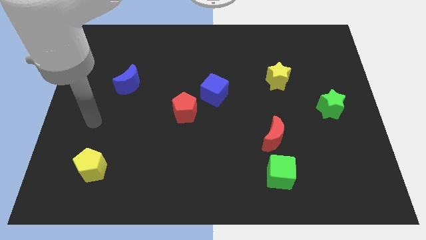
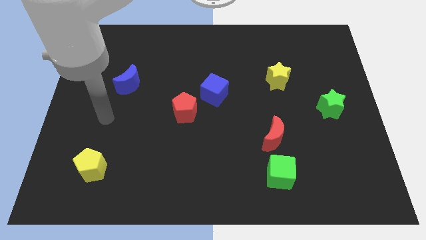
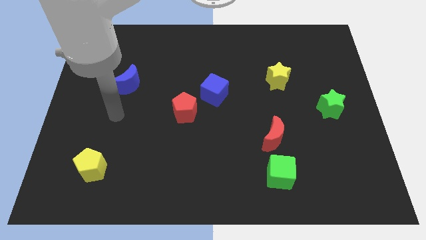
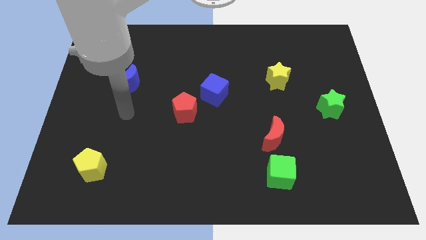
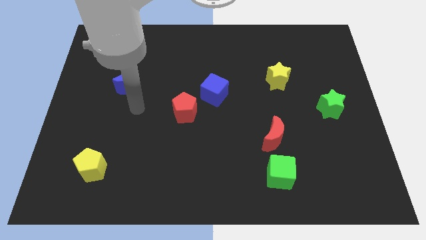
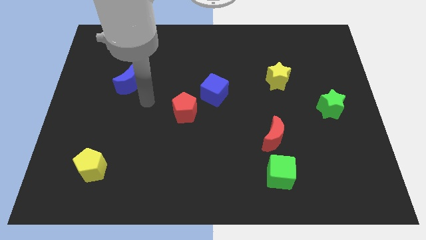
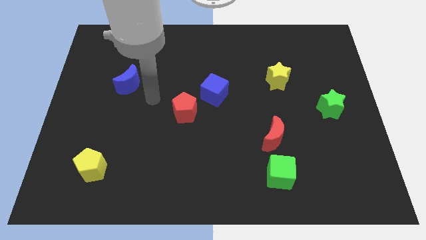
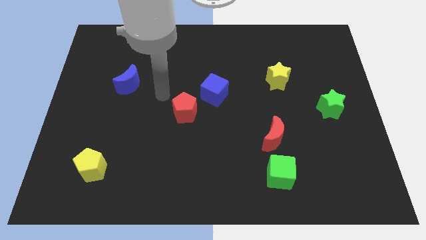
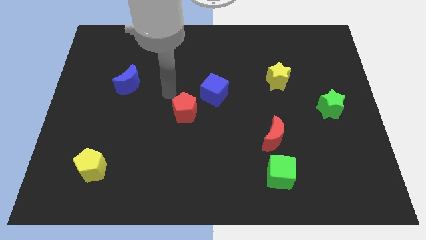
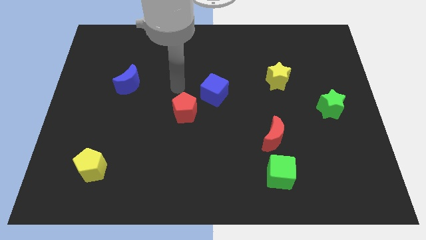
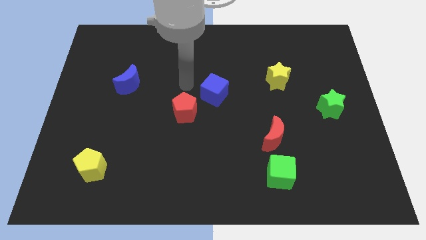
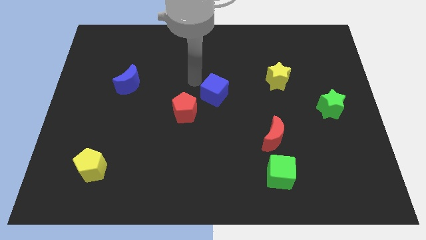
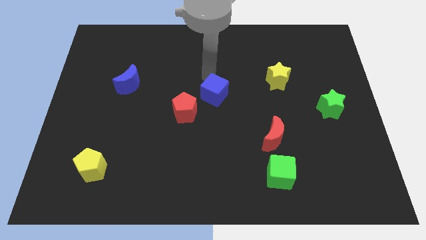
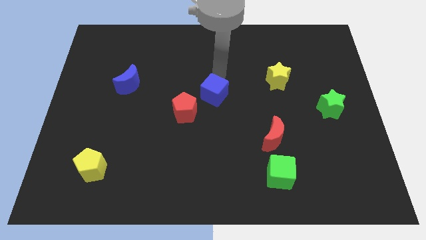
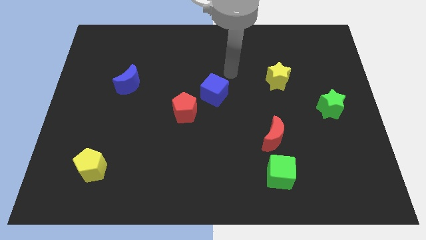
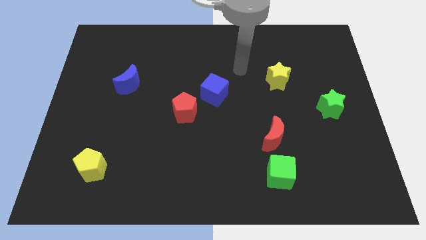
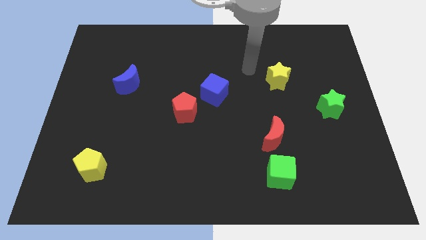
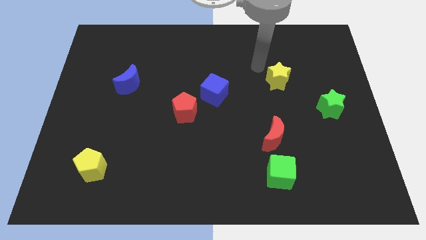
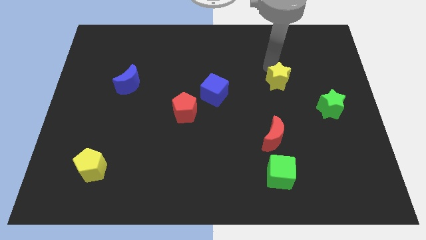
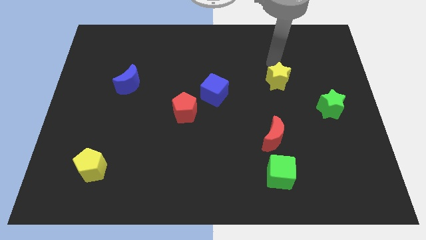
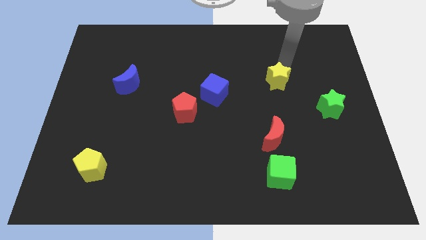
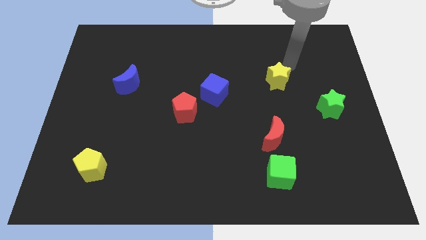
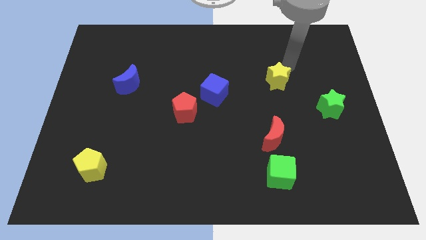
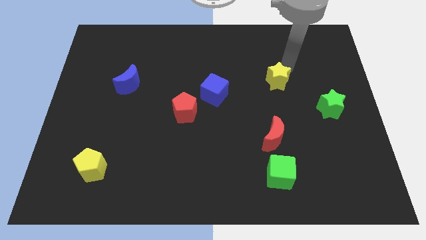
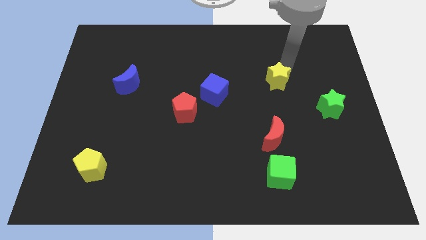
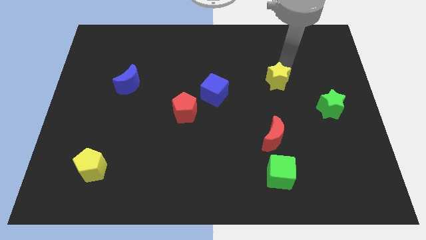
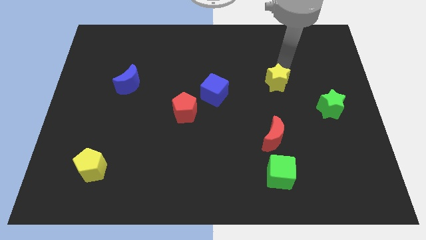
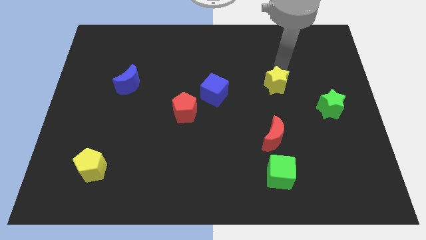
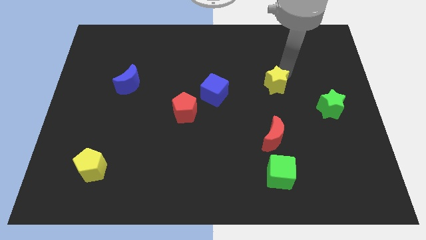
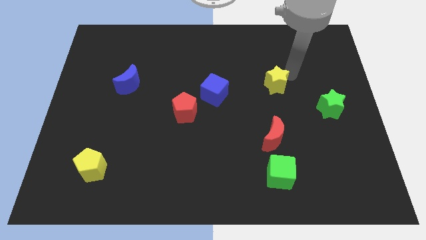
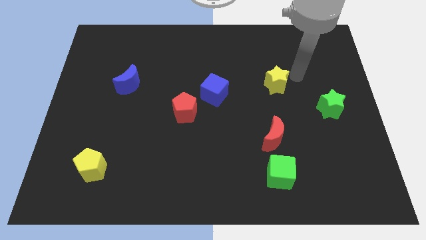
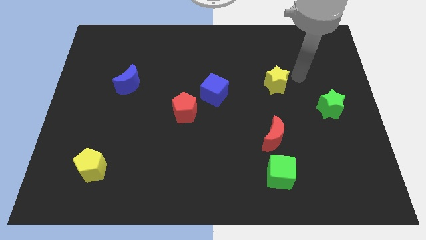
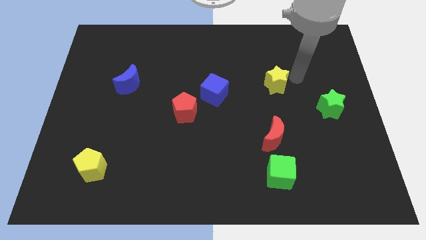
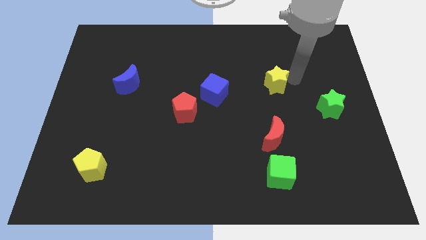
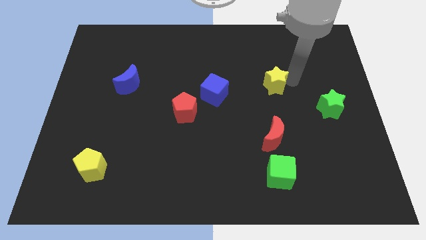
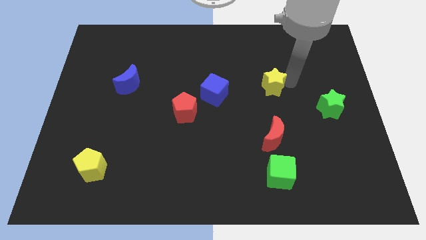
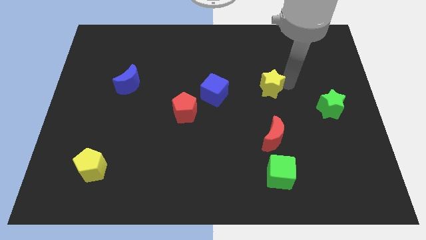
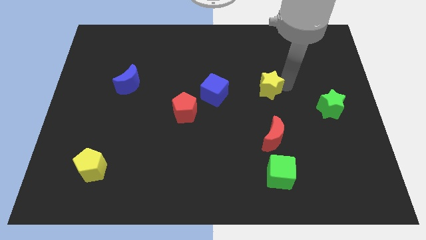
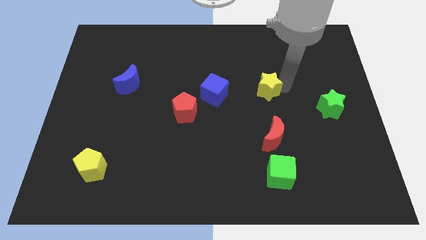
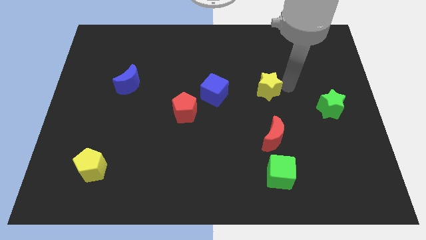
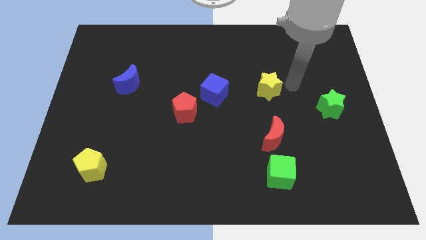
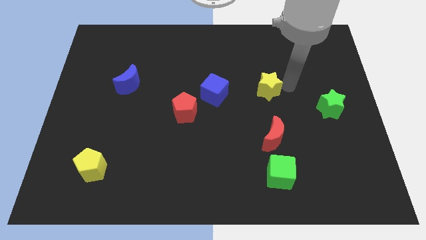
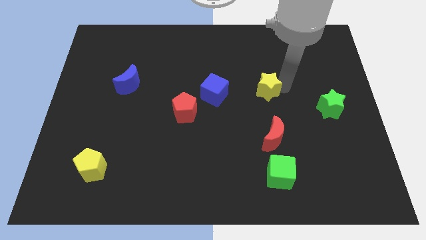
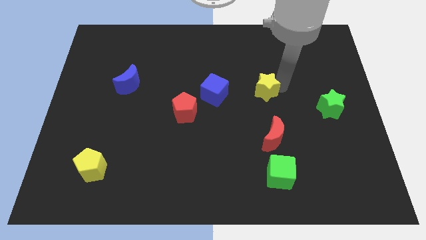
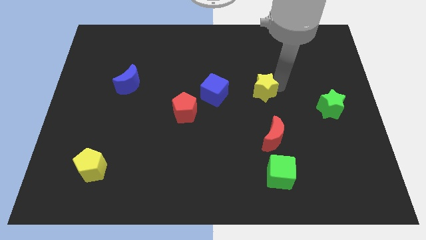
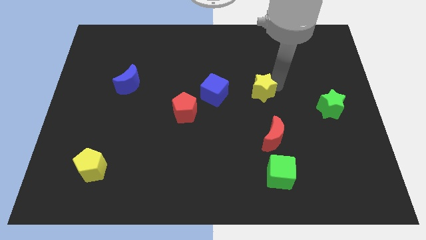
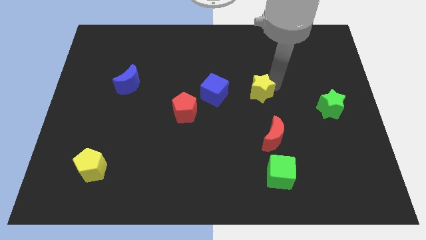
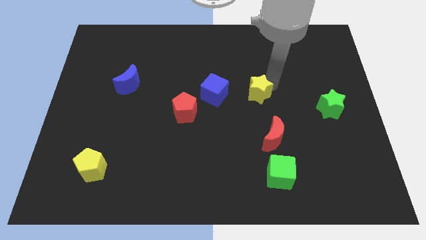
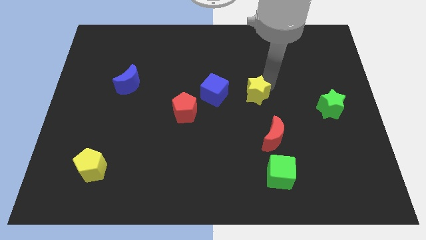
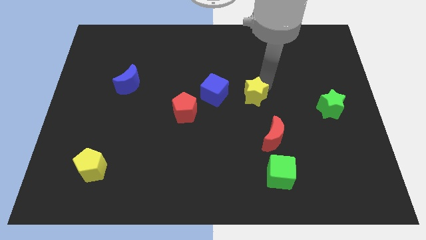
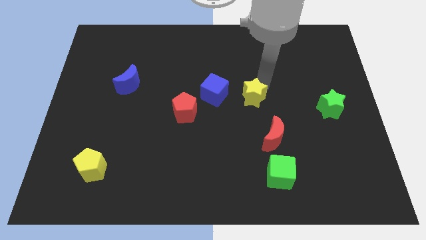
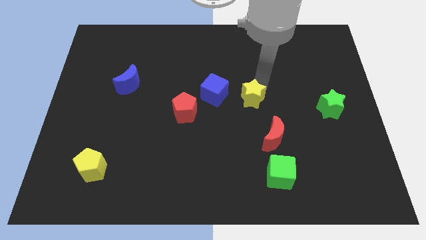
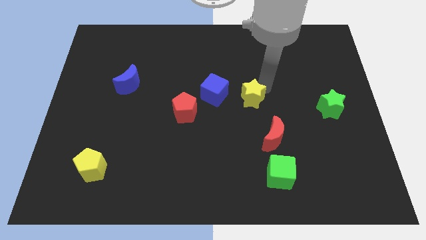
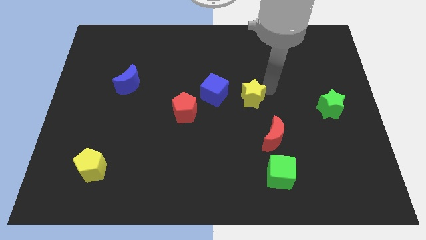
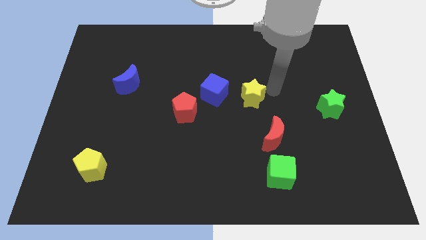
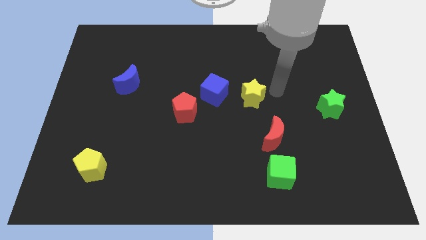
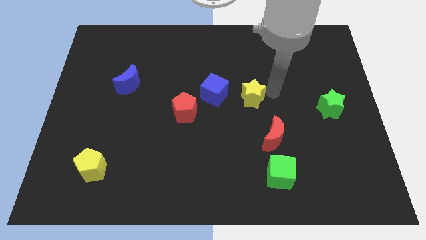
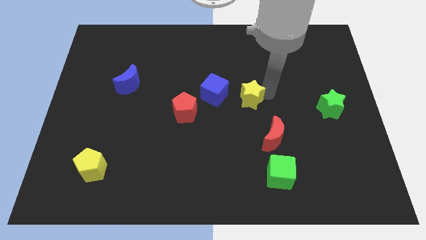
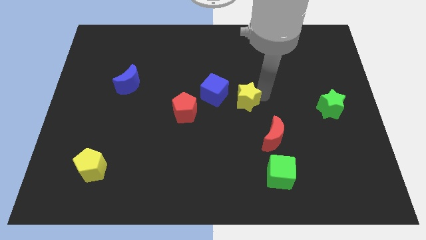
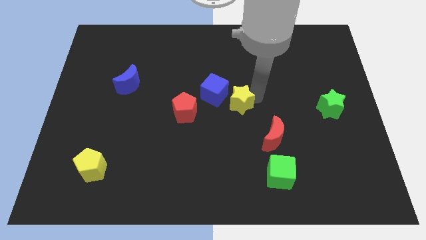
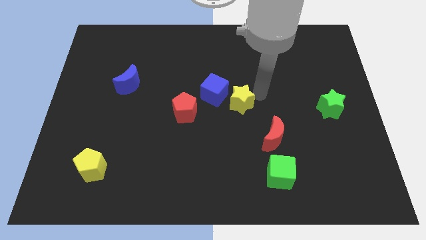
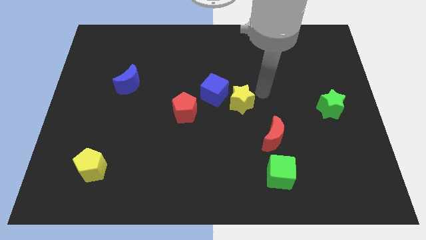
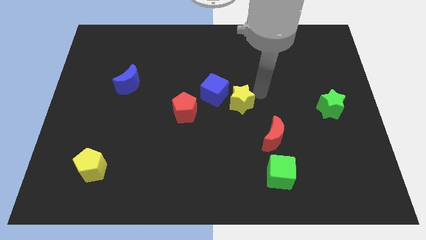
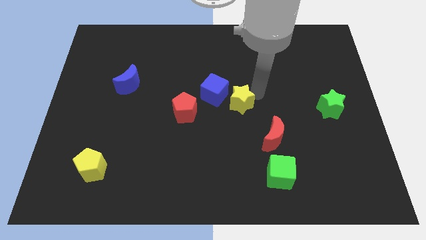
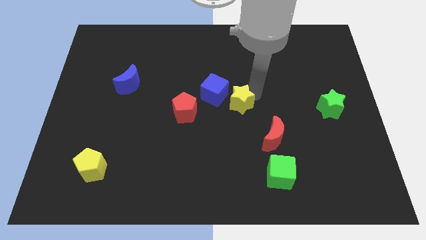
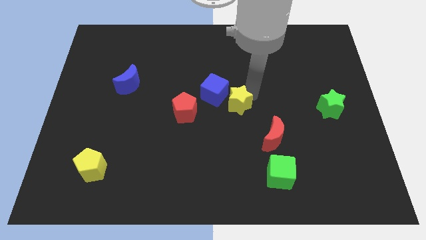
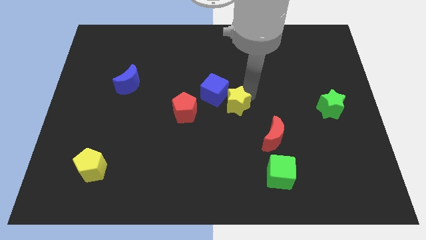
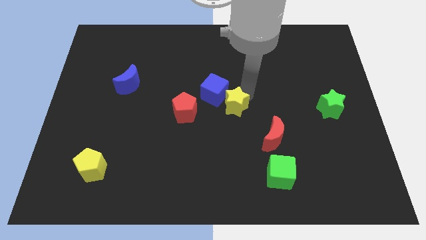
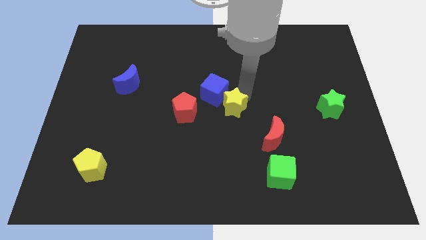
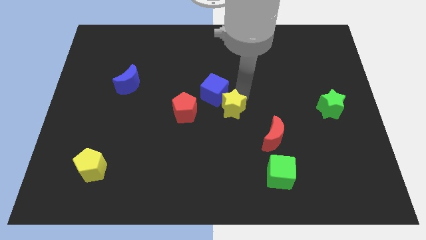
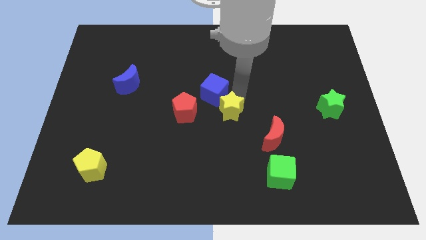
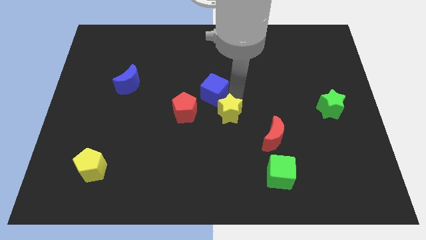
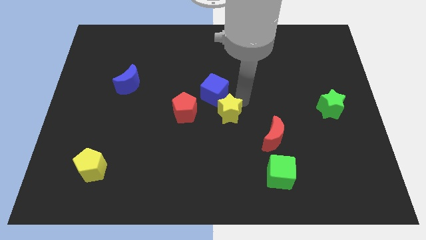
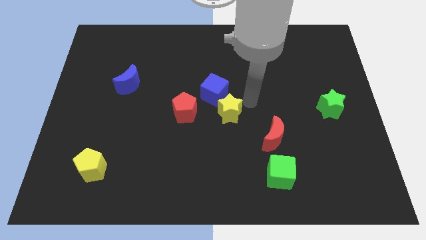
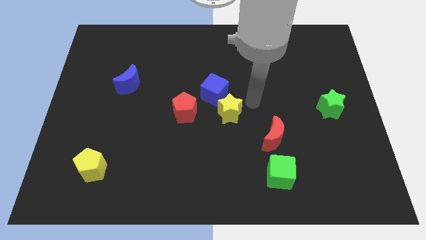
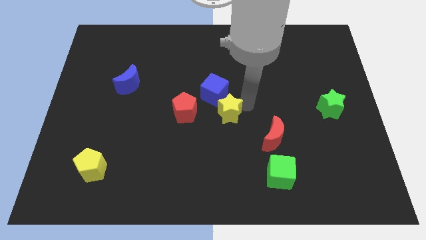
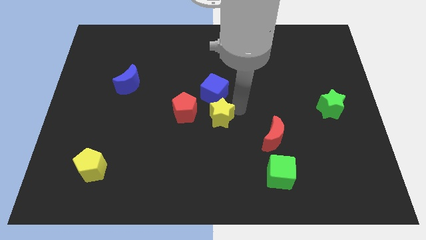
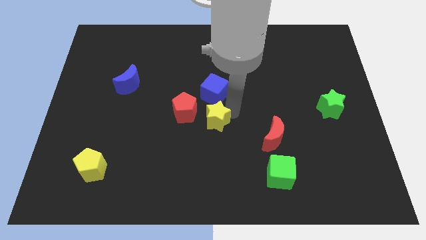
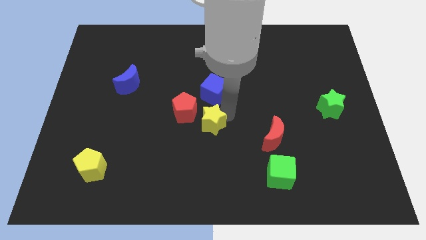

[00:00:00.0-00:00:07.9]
move the yellow star diagonally downwards and left

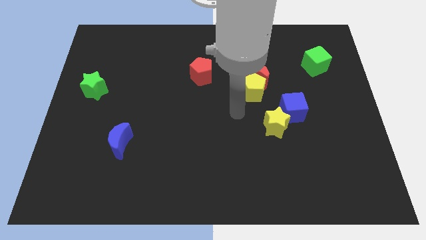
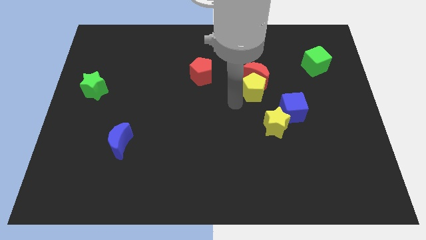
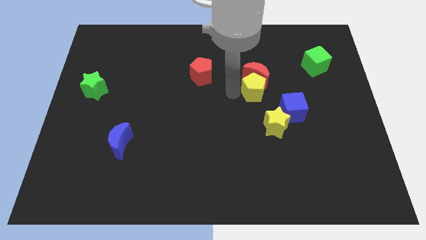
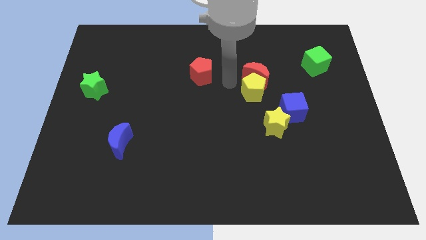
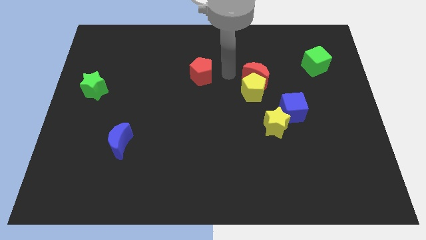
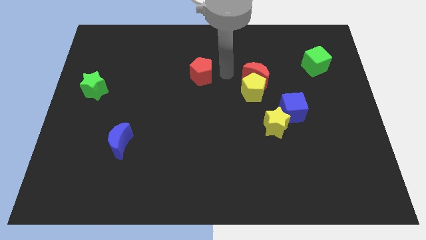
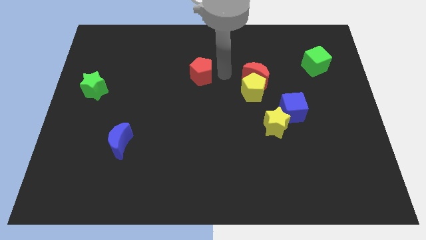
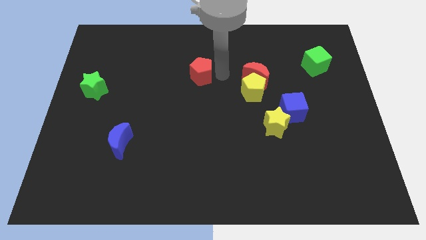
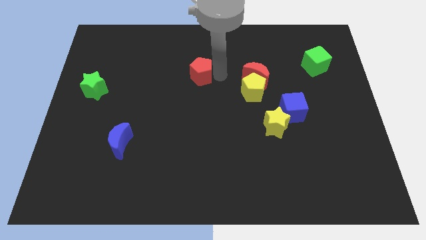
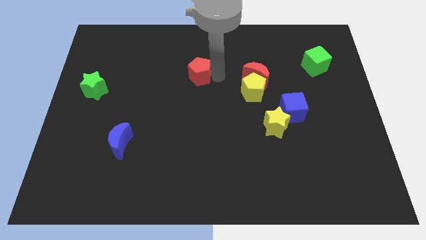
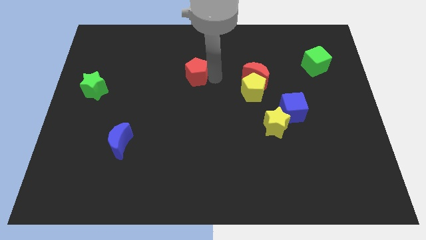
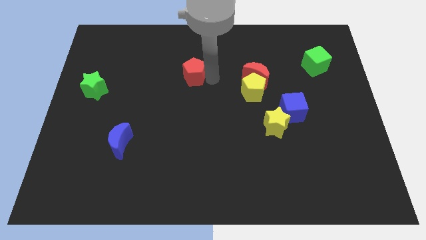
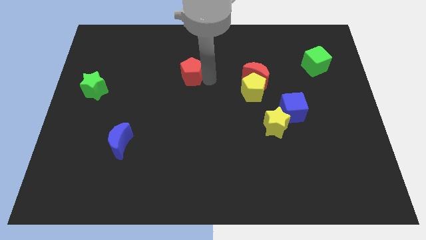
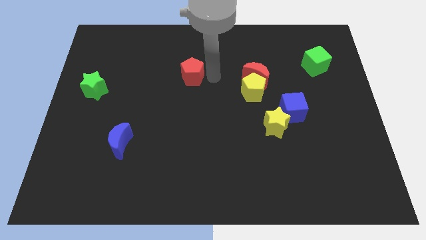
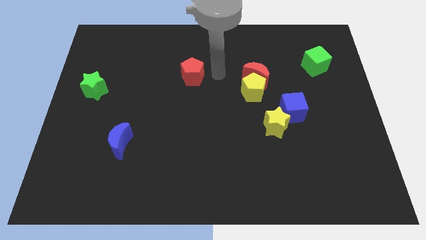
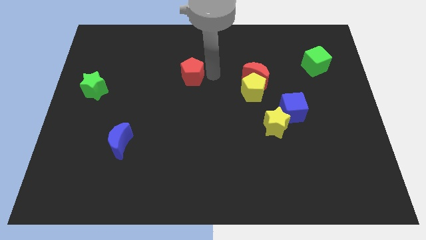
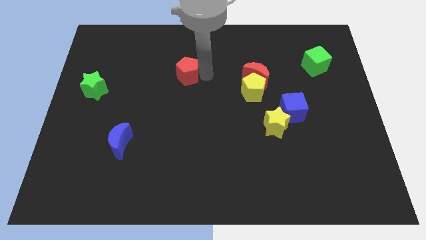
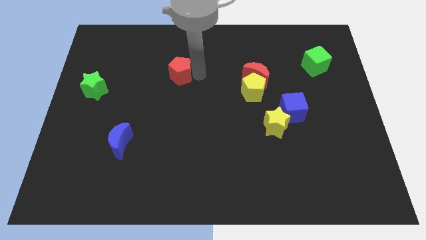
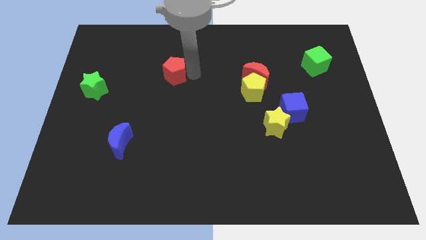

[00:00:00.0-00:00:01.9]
slightly move the red pentagon left
